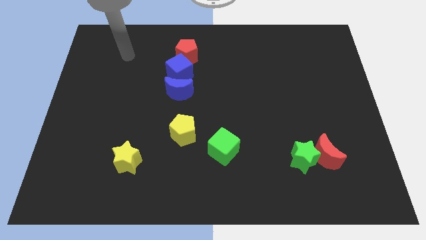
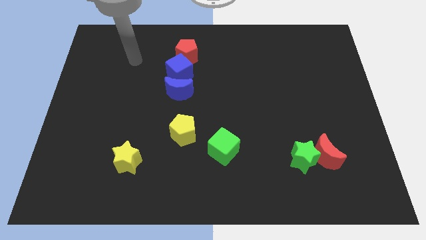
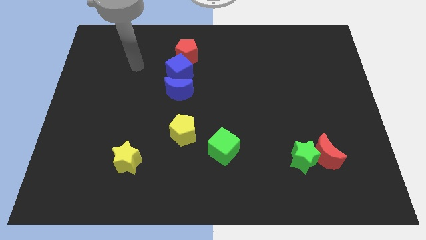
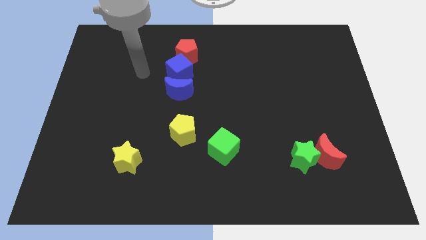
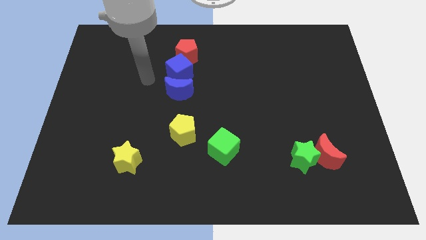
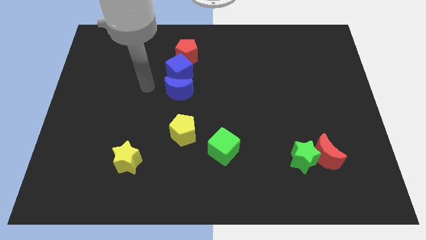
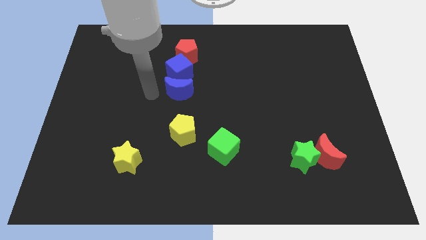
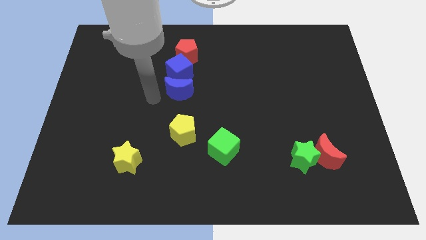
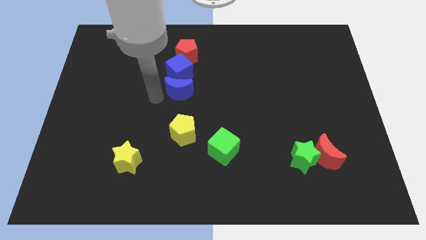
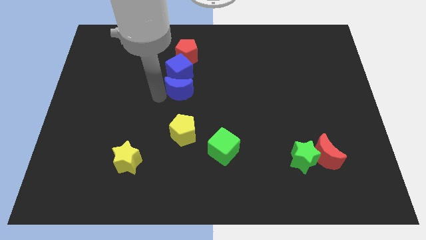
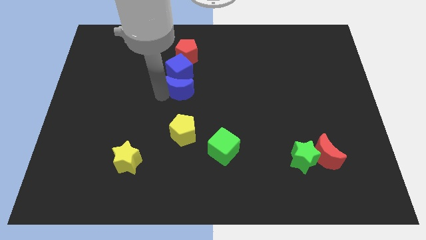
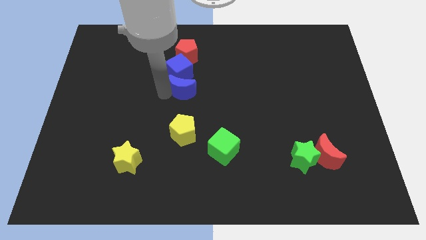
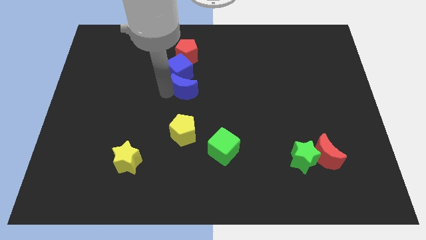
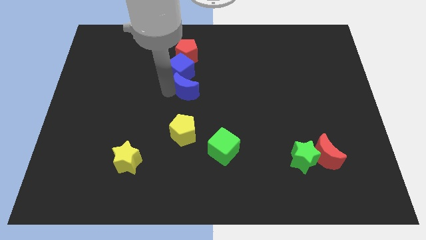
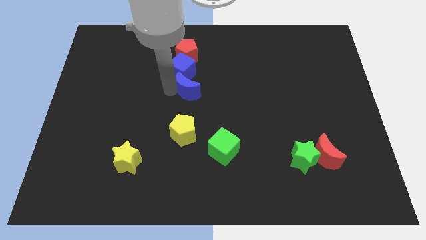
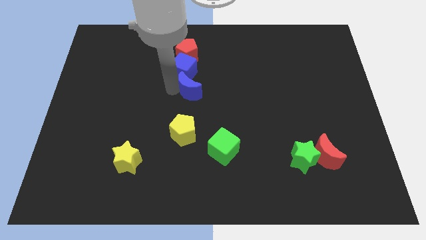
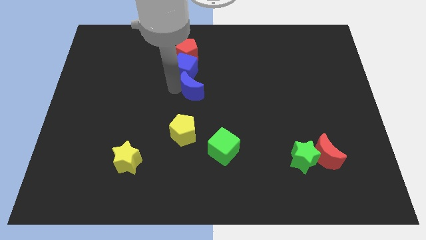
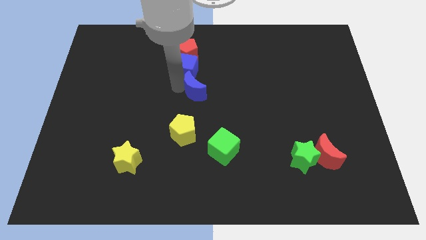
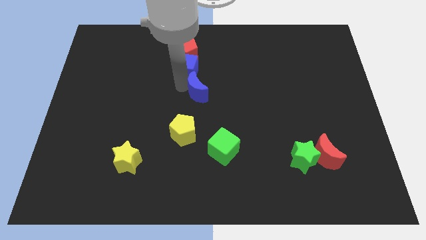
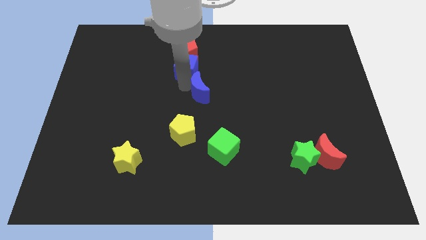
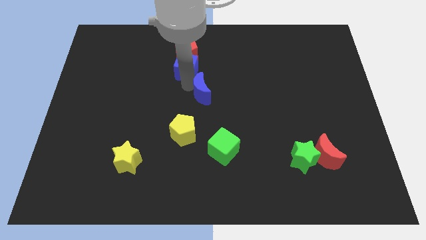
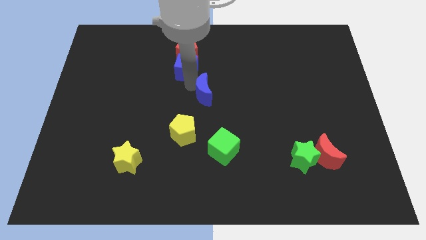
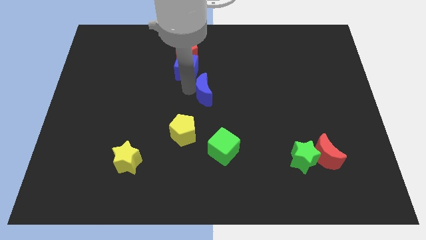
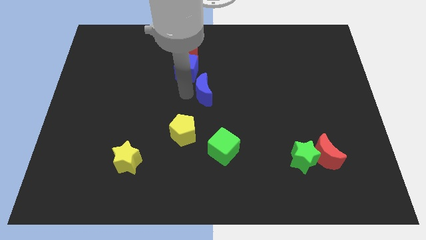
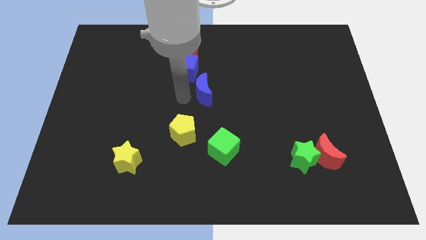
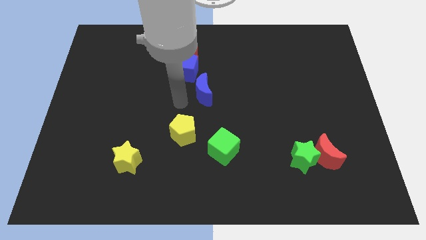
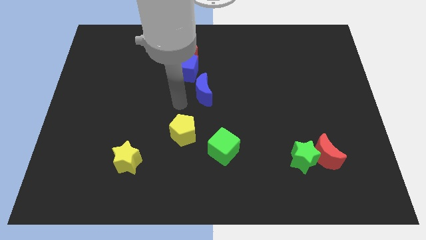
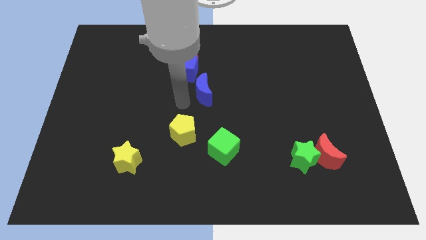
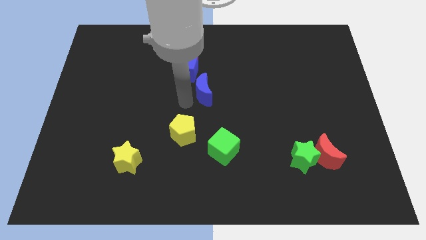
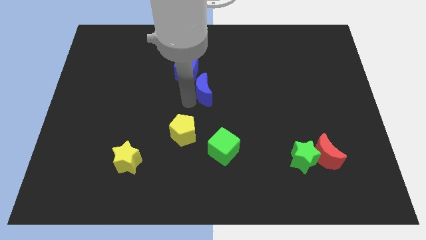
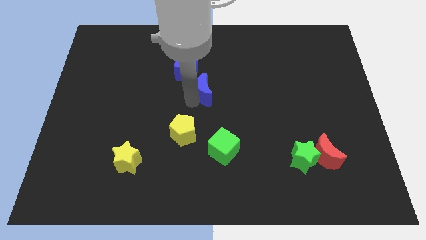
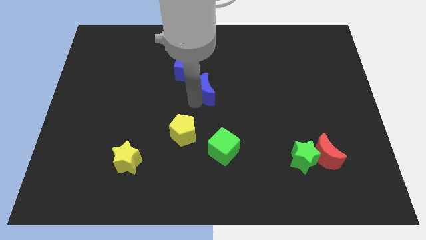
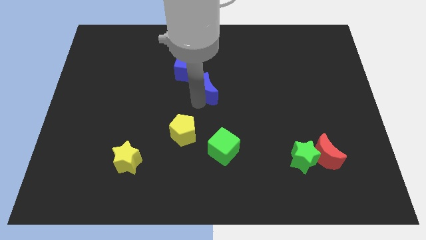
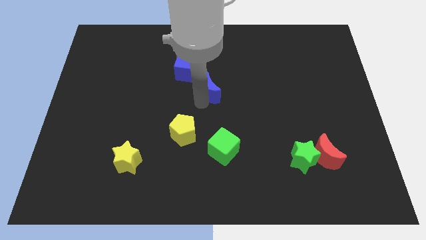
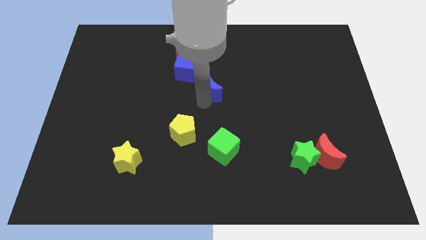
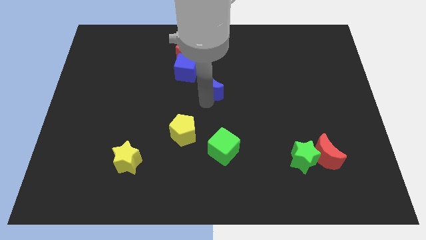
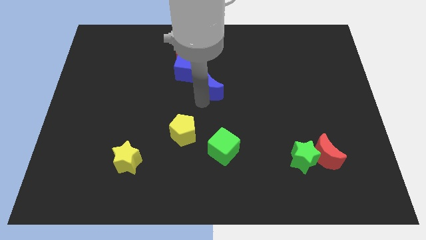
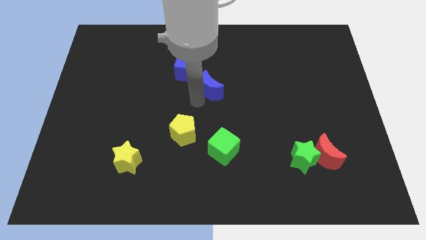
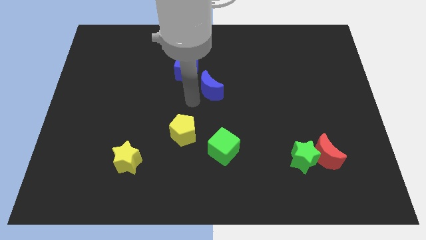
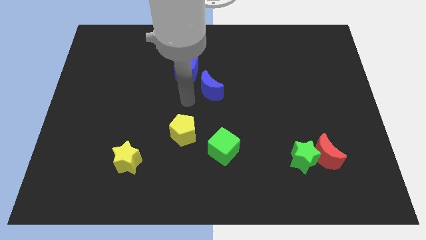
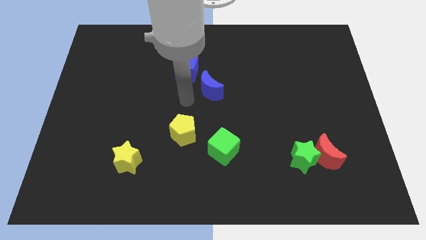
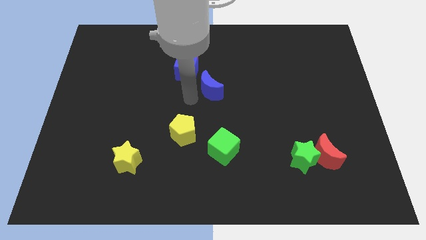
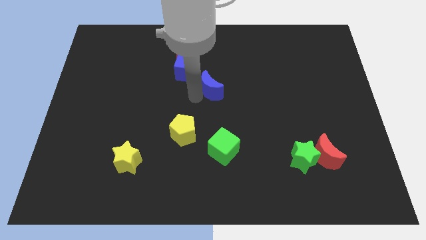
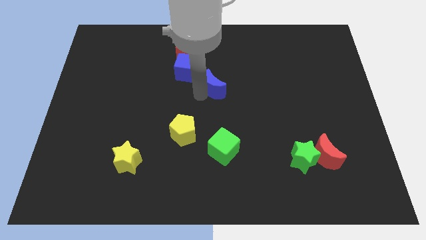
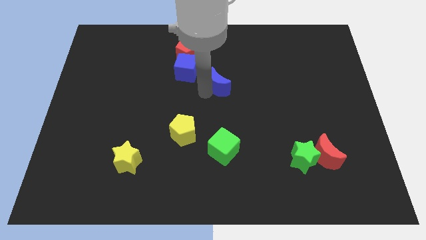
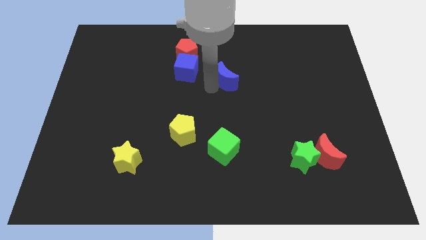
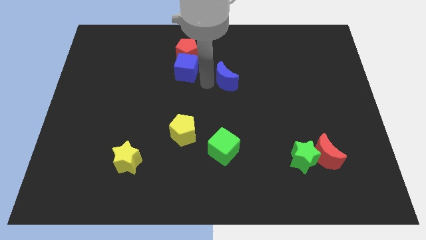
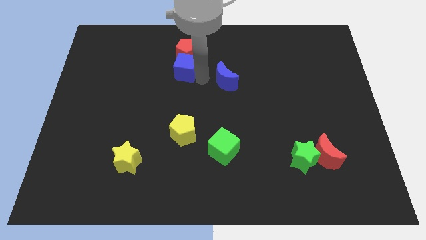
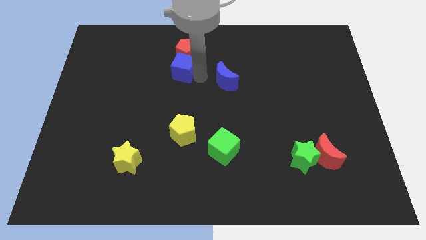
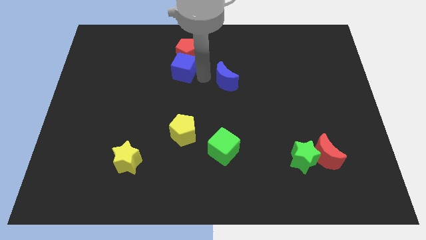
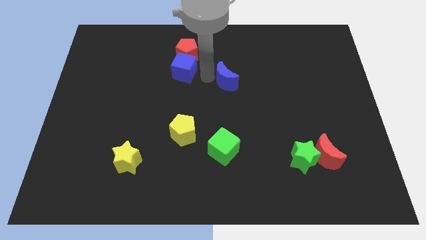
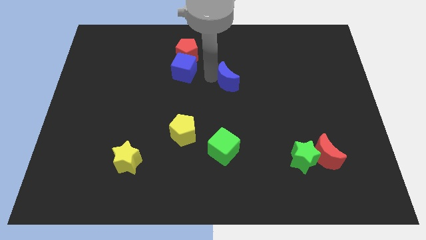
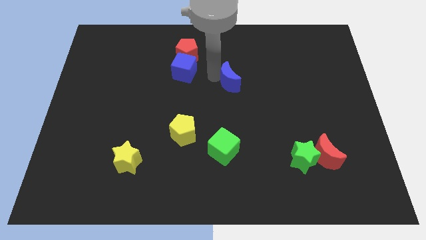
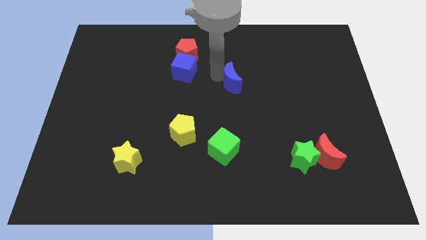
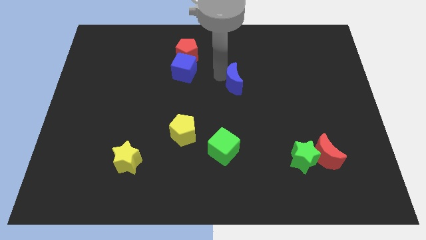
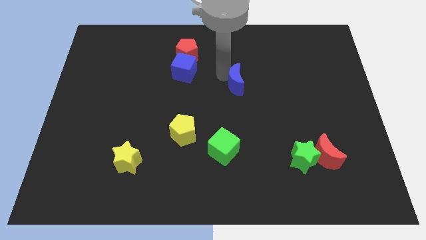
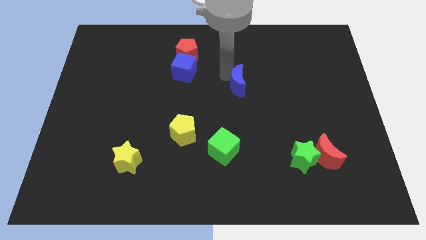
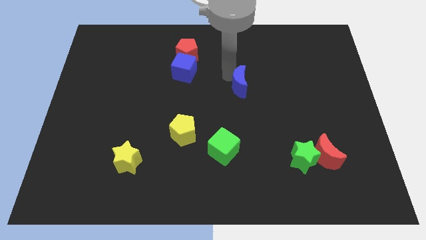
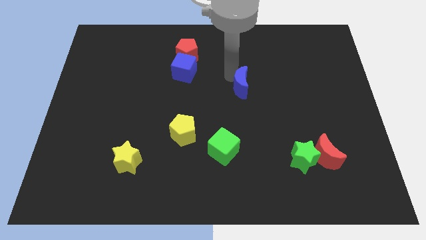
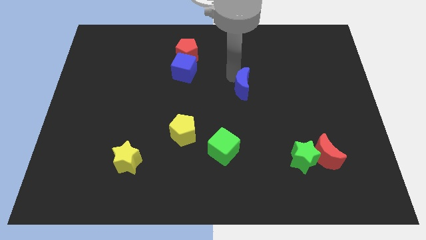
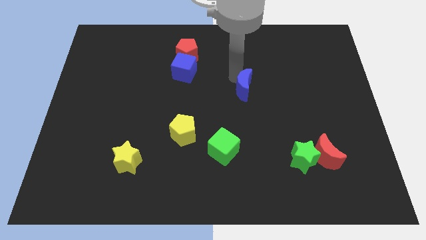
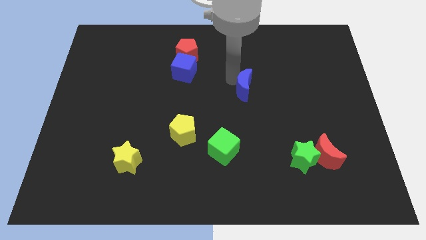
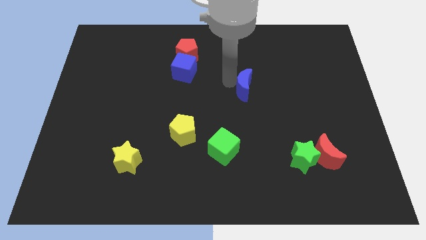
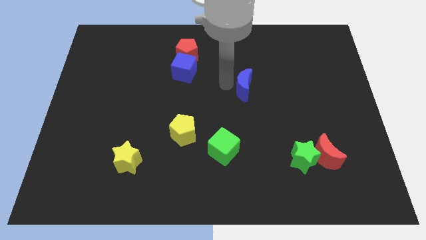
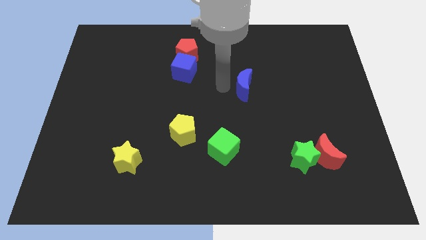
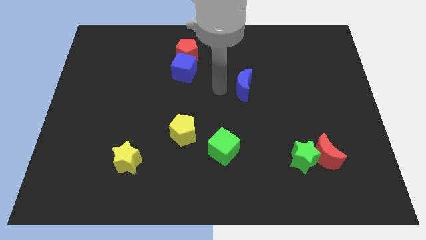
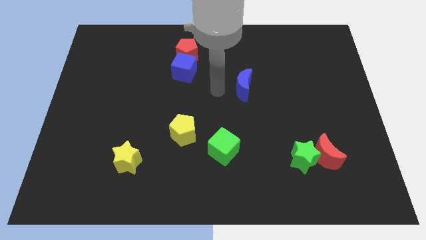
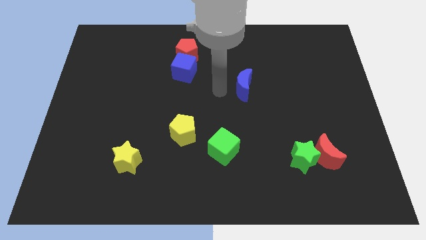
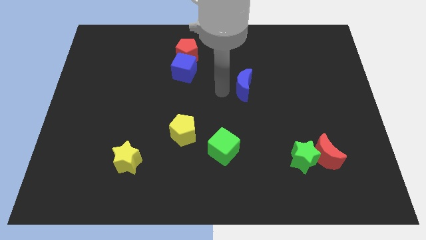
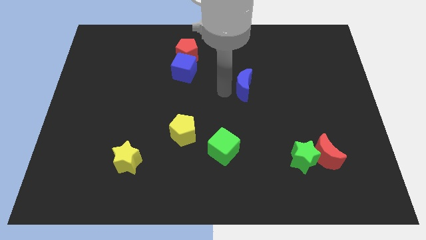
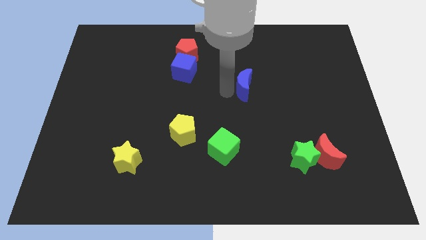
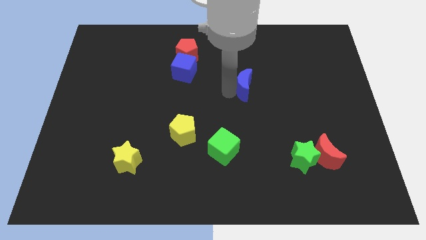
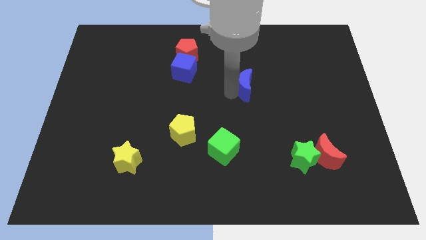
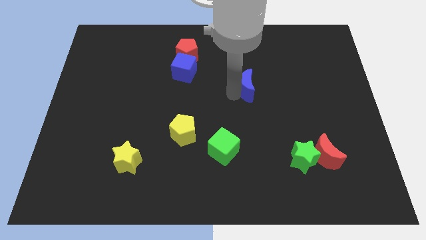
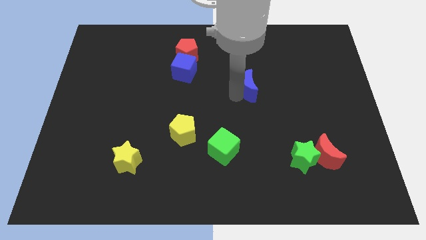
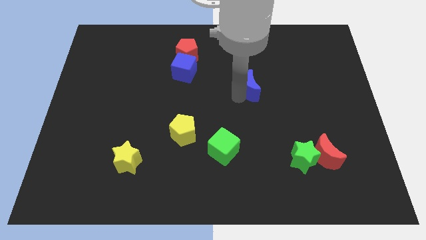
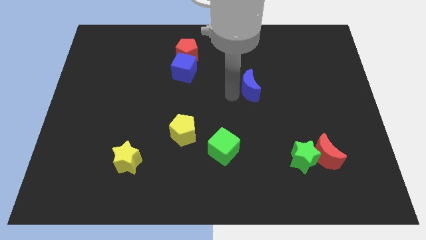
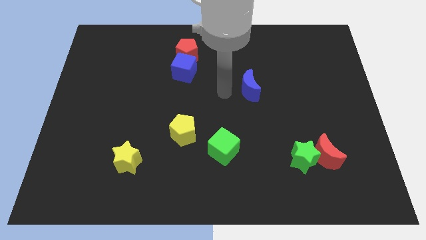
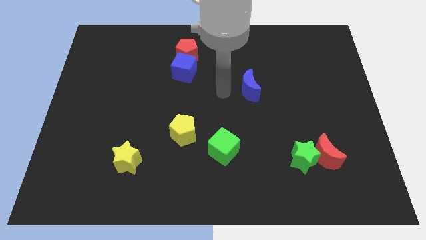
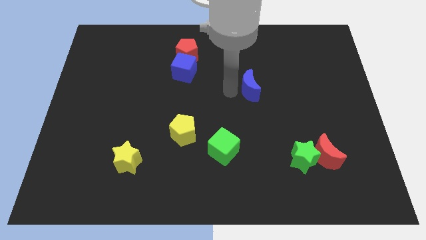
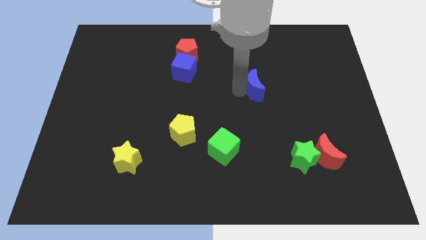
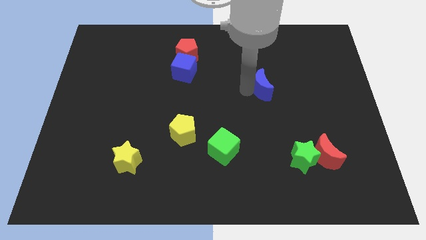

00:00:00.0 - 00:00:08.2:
push the blue moon right
